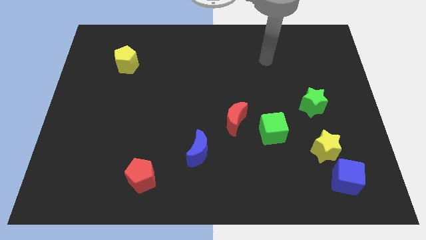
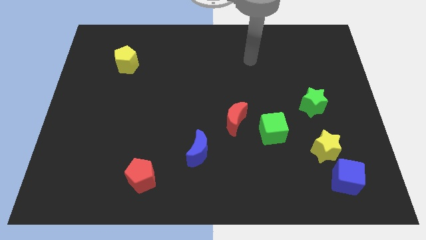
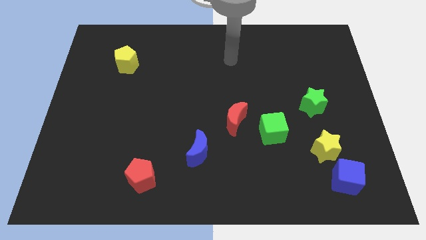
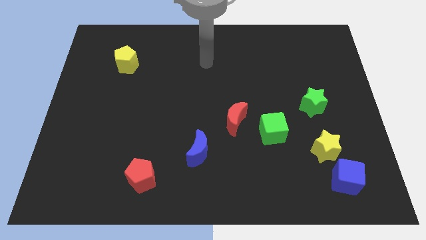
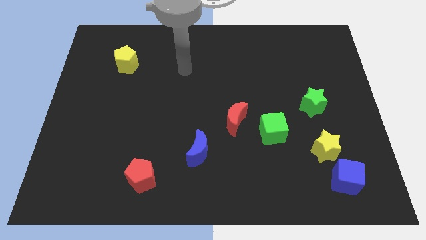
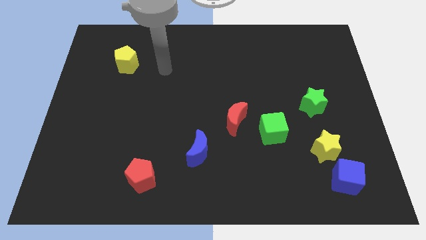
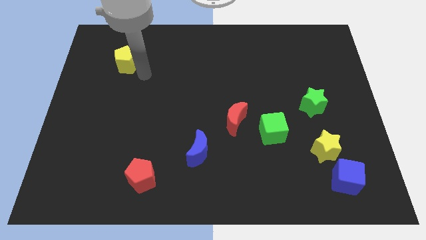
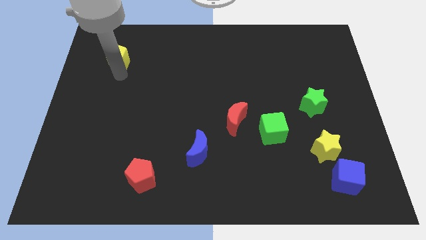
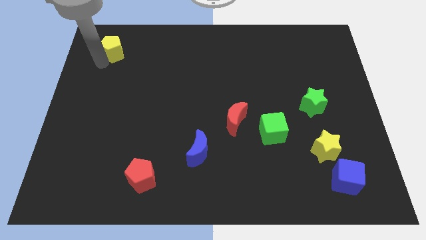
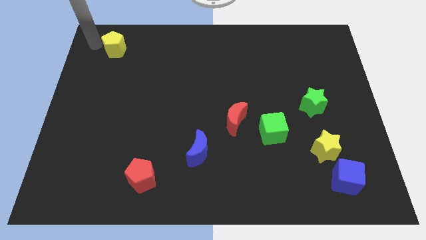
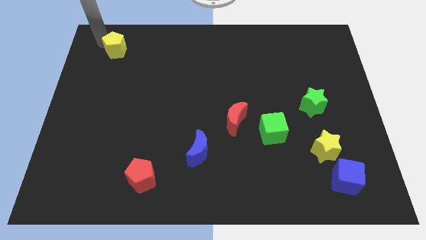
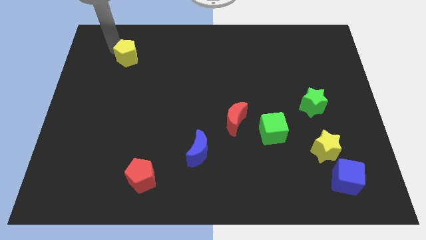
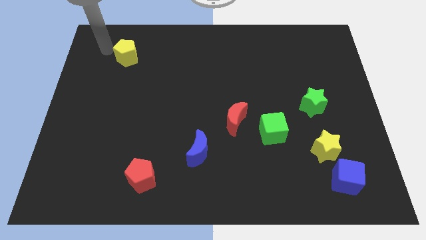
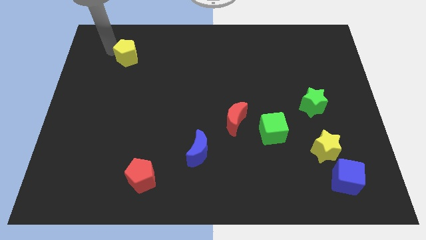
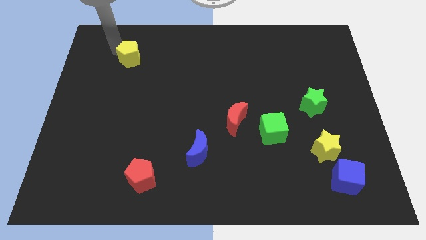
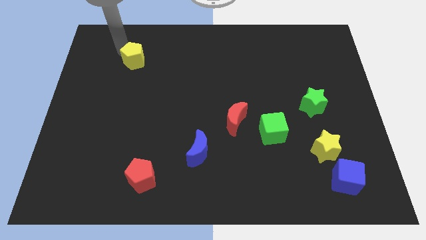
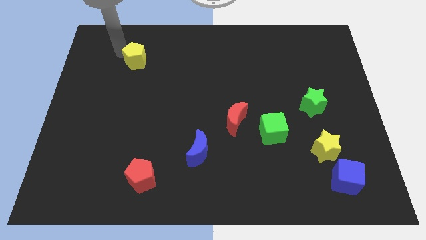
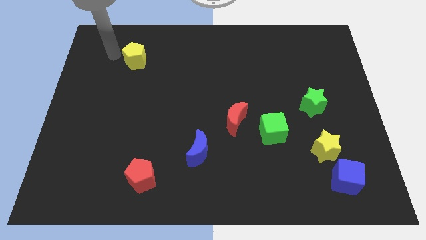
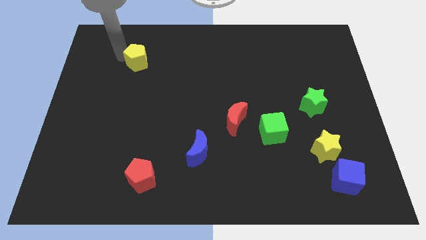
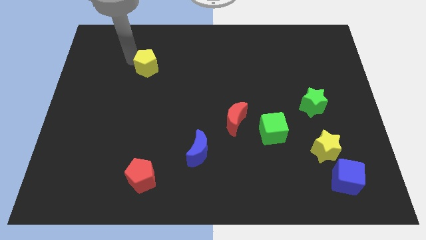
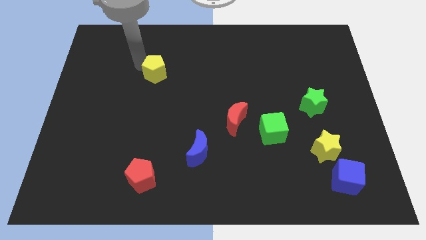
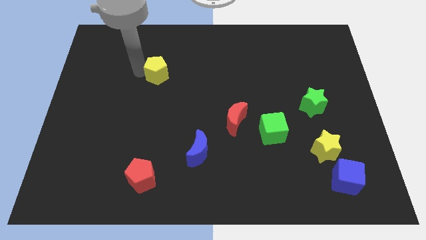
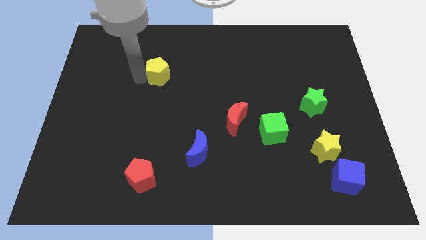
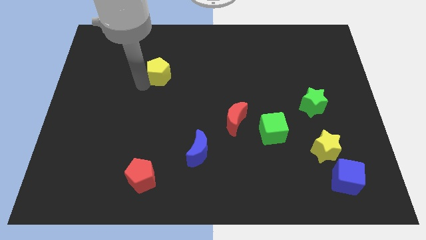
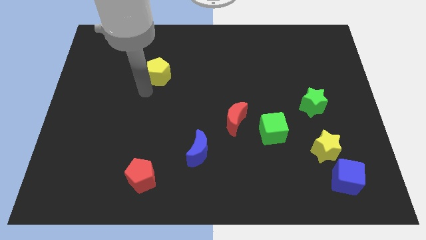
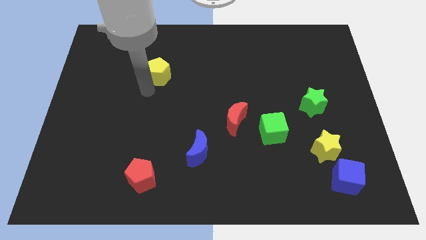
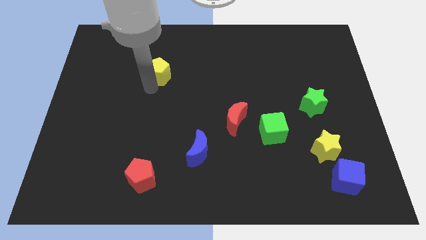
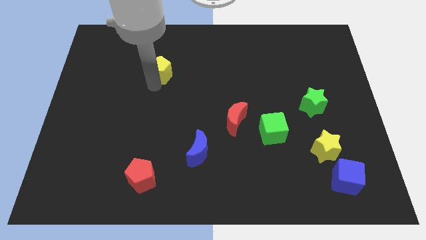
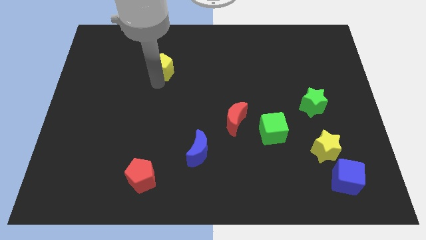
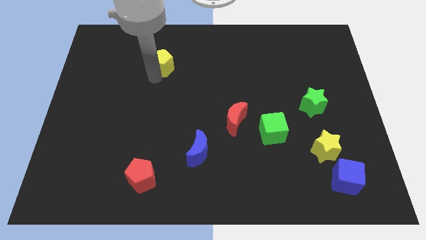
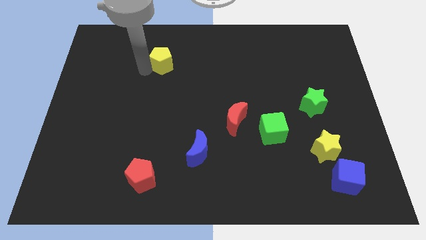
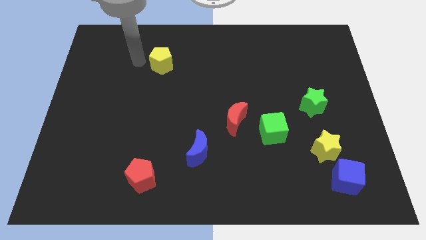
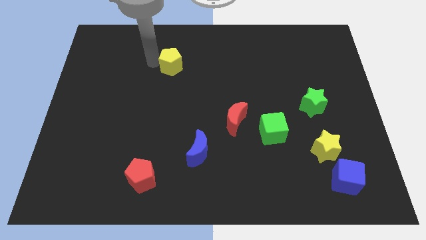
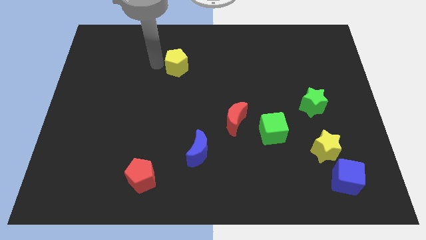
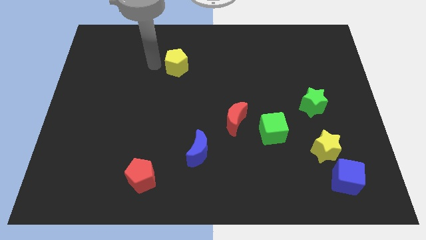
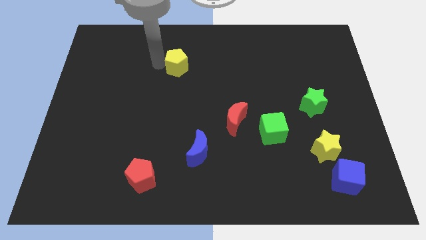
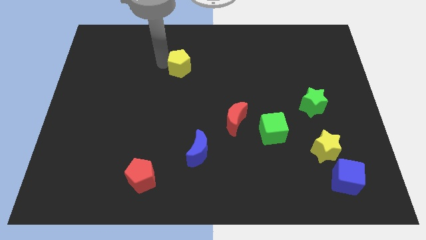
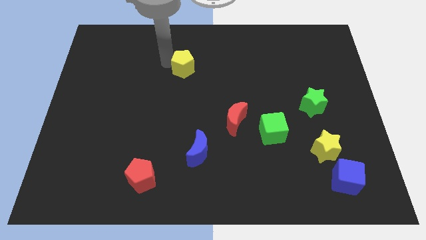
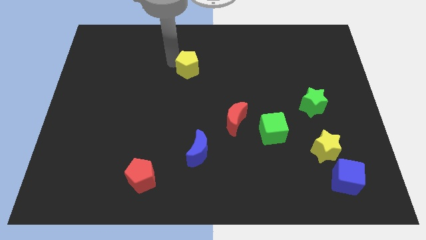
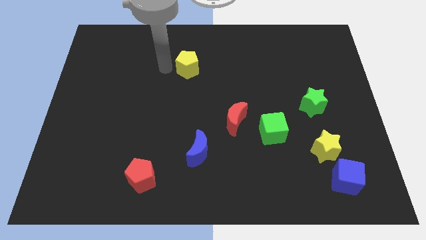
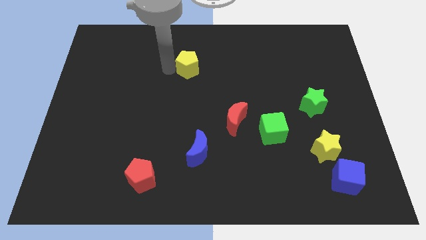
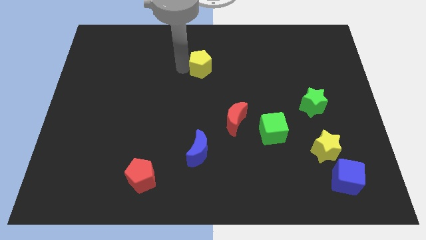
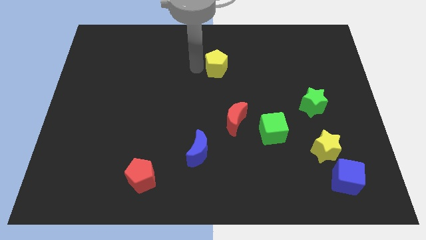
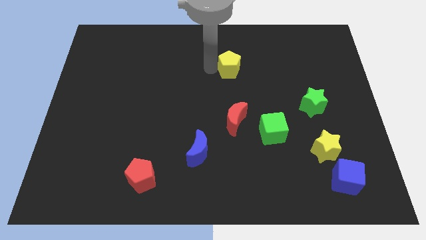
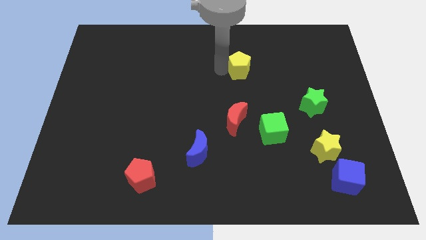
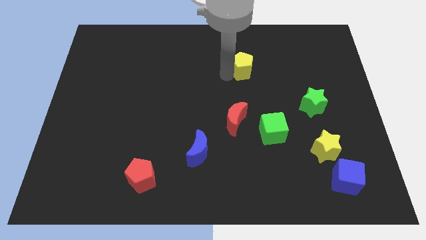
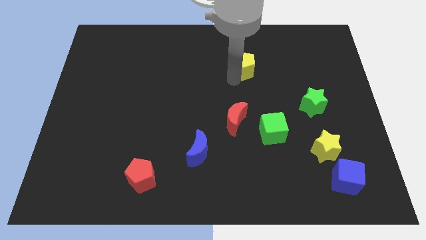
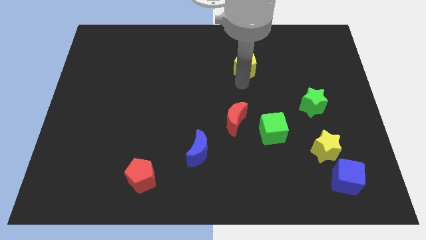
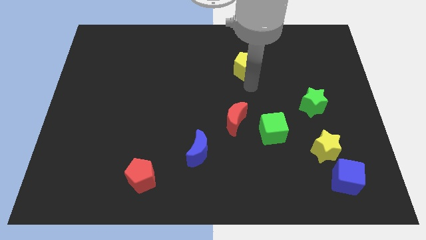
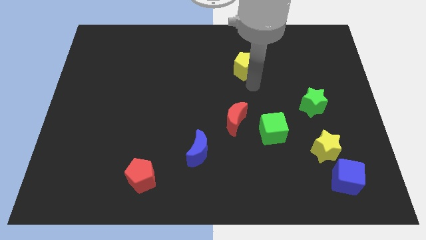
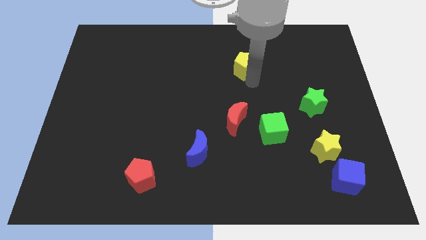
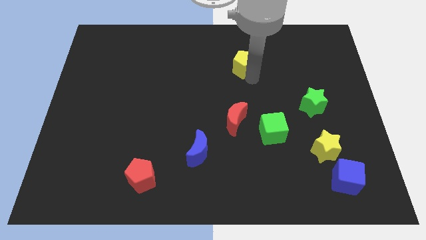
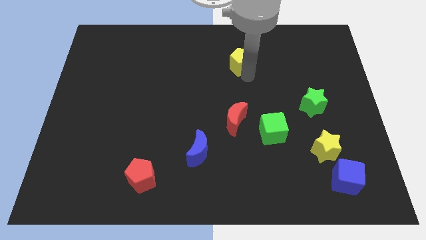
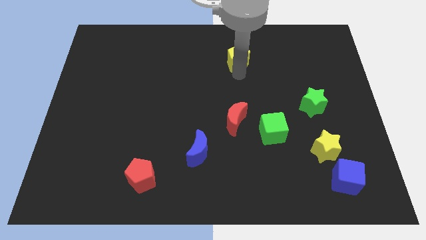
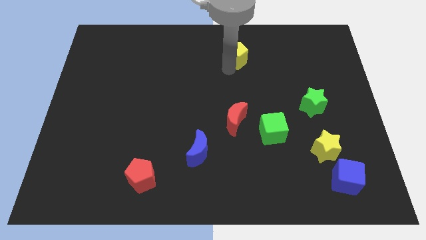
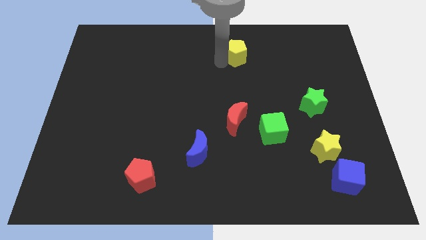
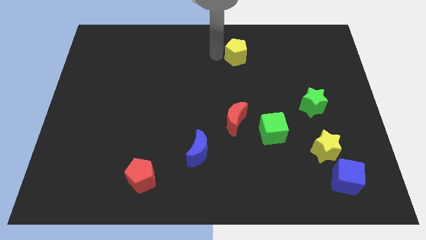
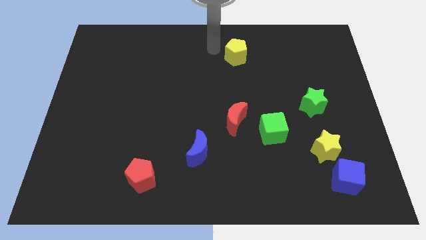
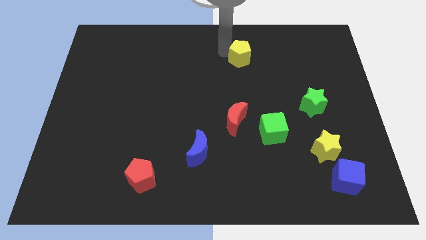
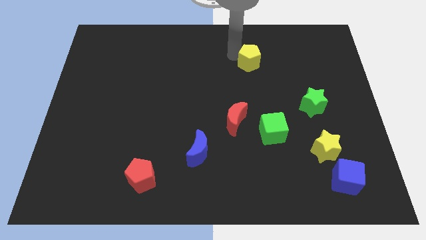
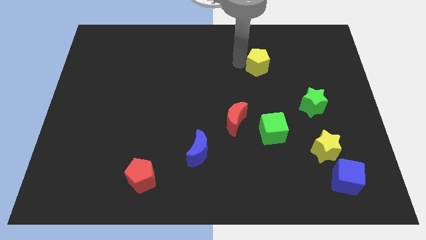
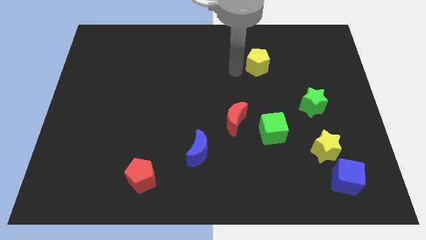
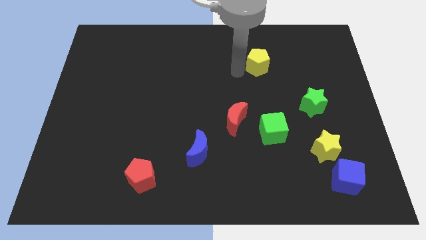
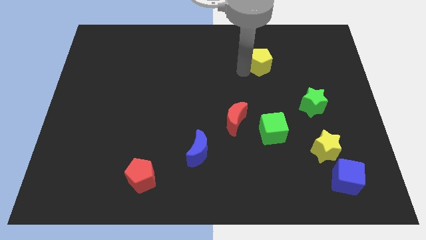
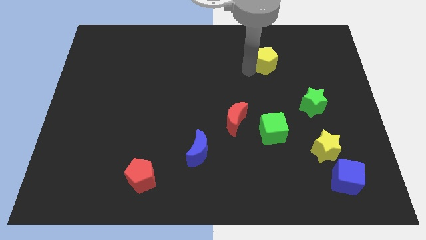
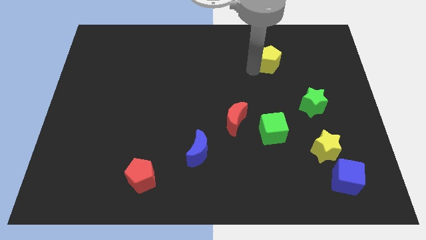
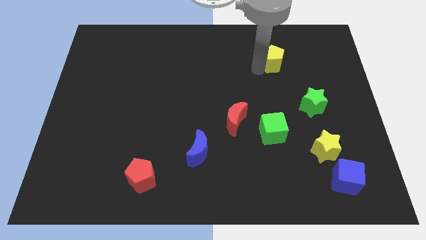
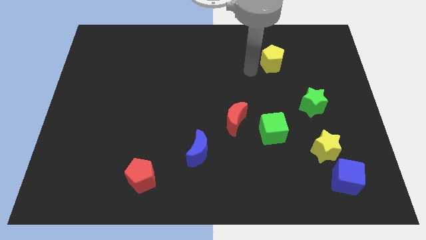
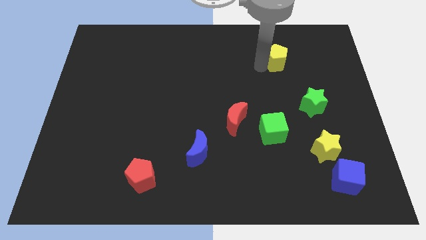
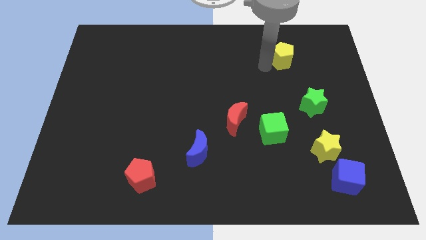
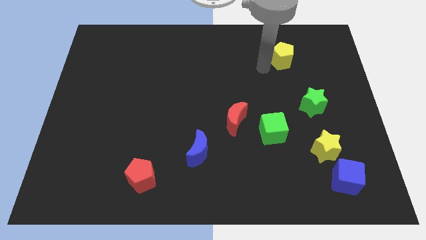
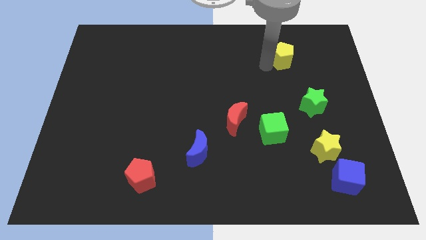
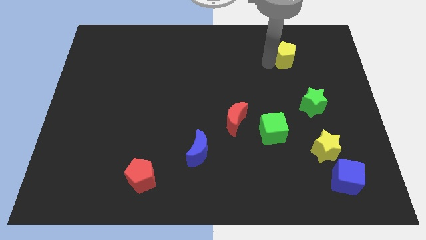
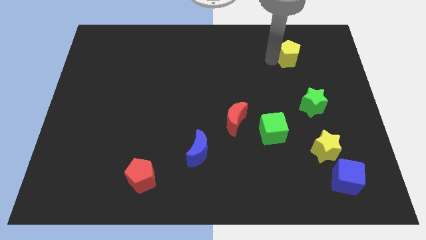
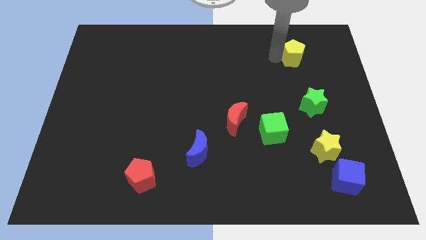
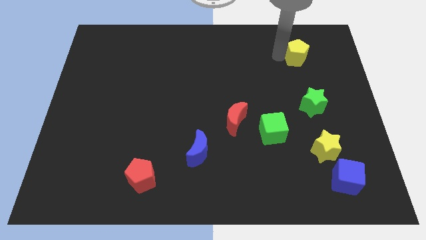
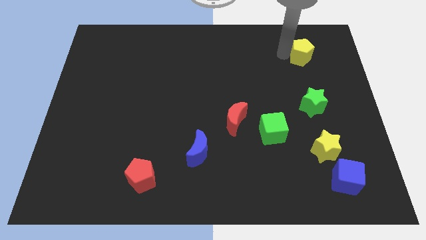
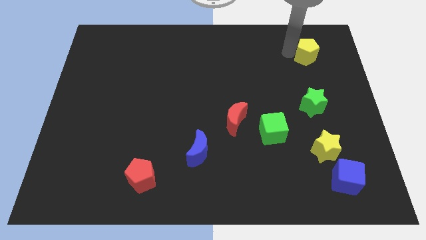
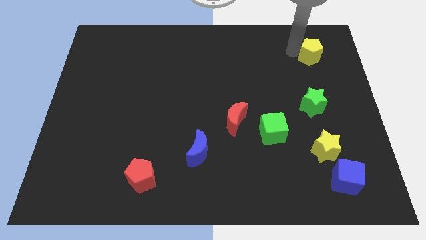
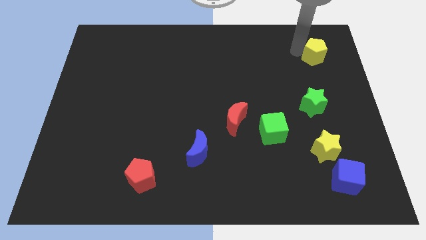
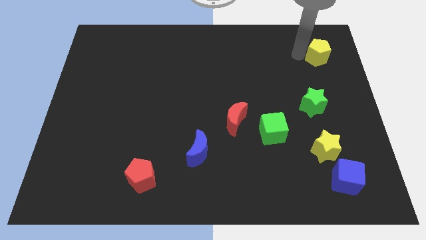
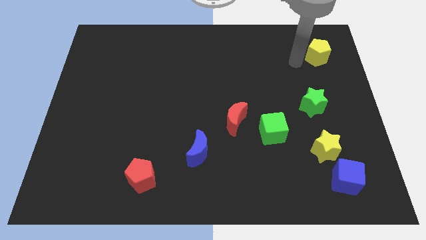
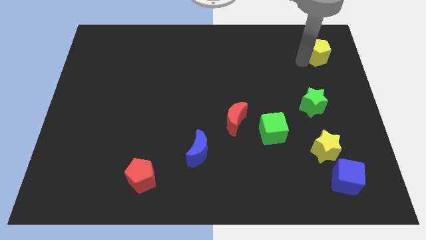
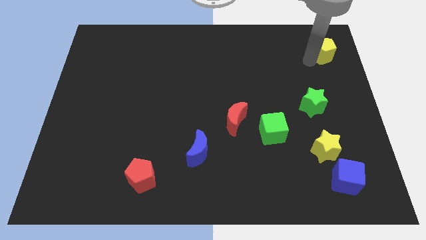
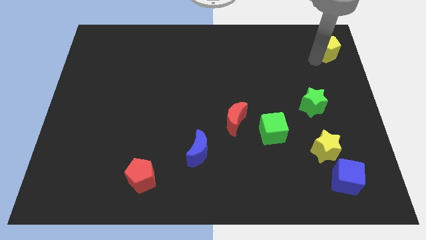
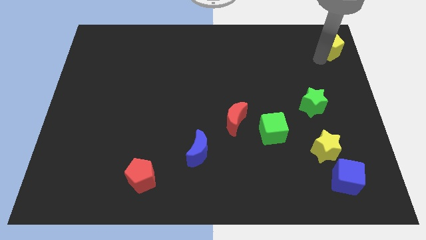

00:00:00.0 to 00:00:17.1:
slide the yellow pentagon to the upper right corner
